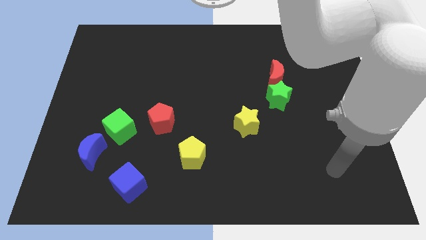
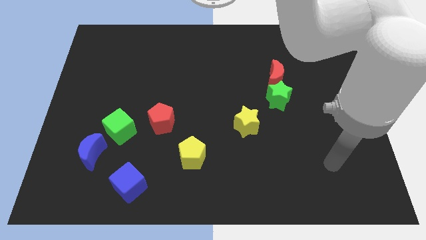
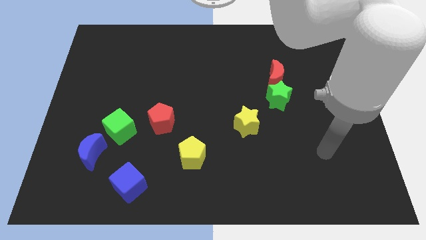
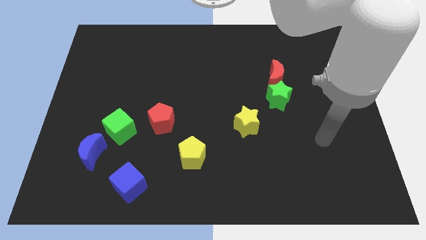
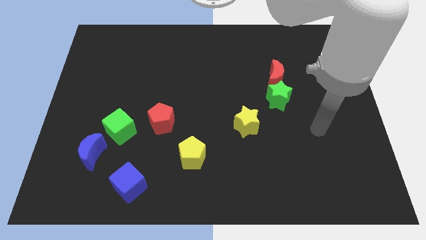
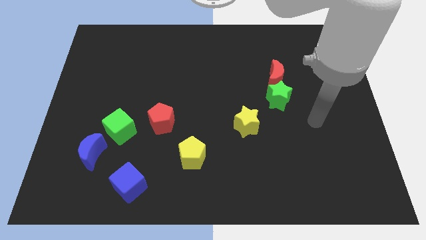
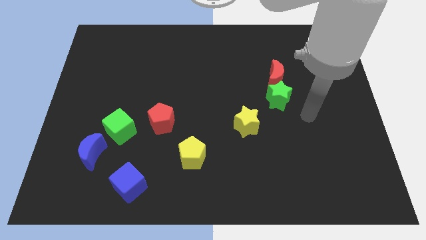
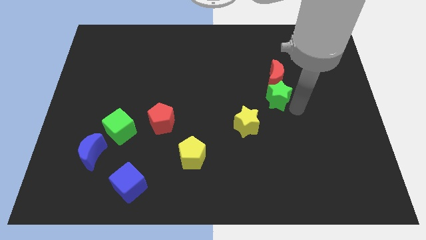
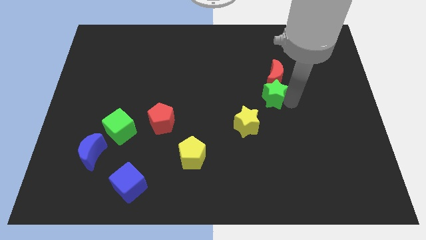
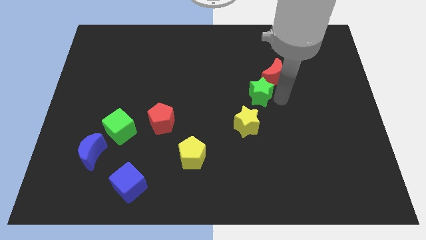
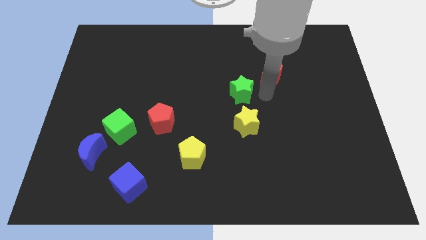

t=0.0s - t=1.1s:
pull the red moon apart from the green star

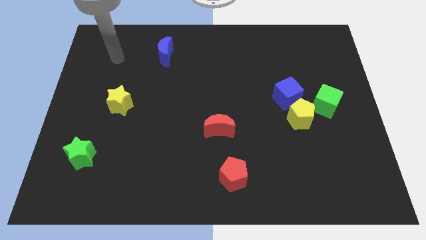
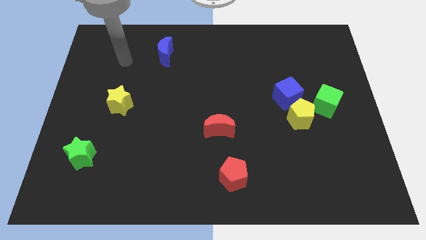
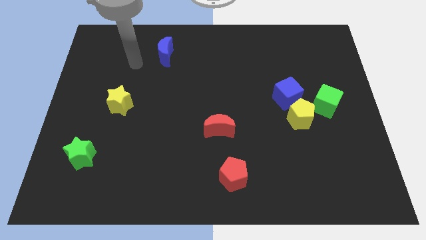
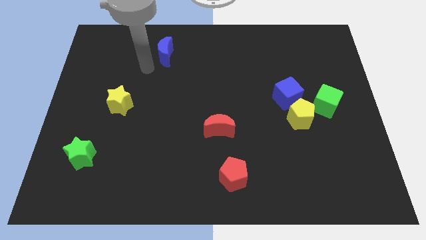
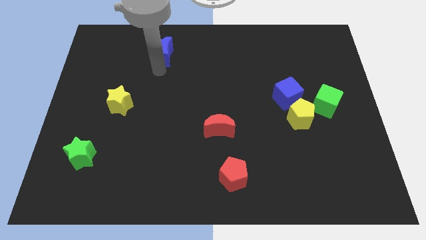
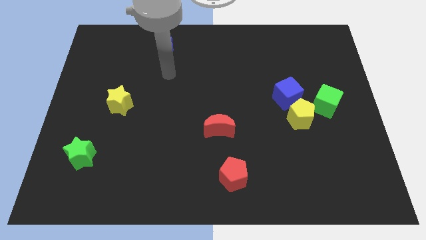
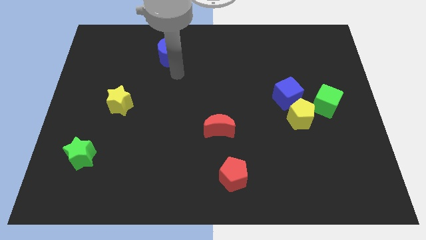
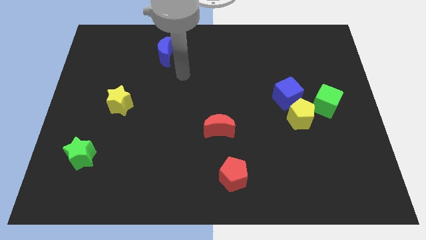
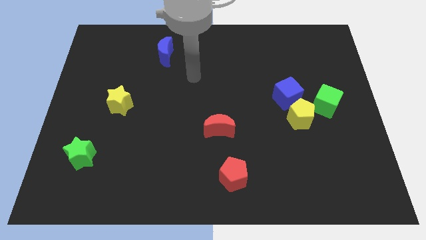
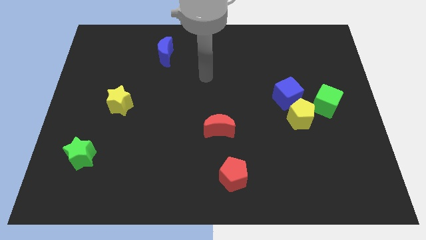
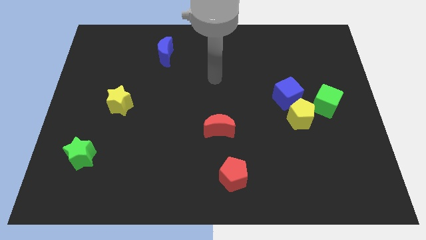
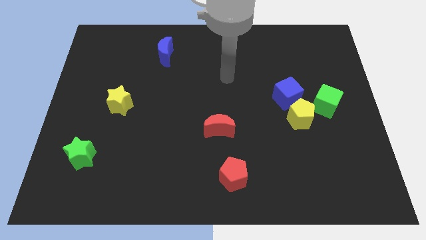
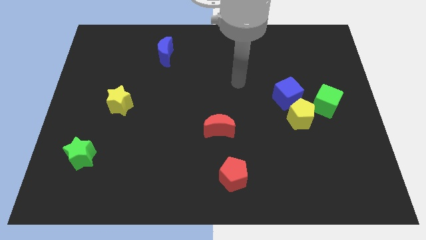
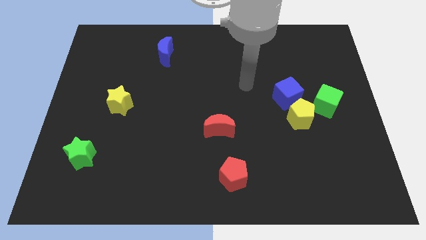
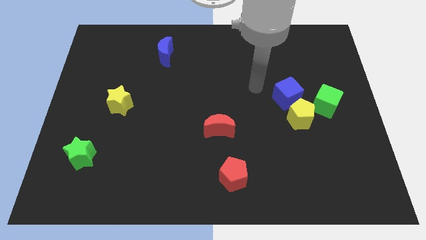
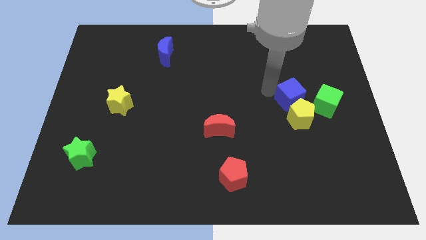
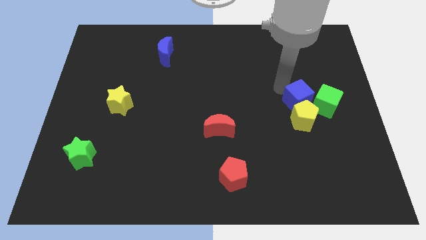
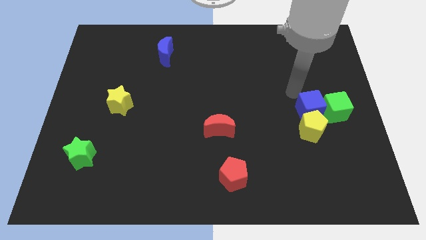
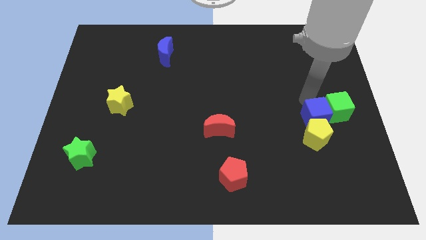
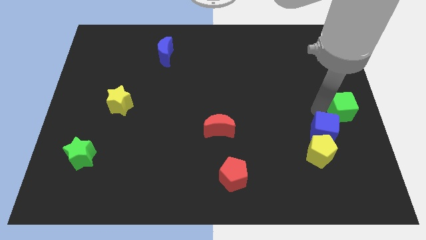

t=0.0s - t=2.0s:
move the yellow pentagon away from the blue cube and green cube

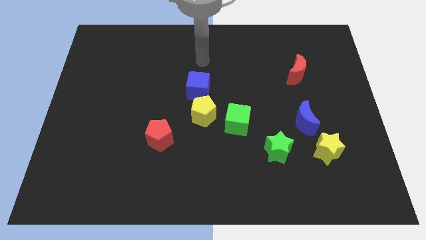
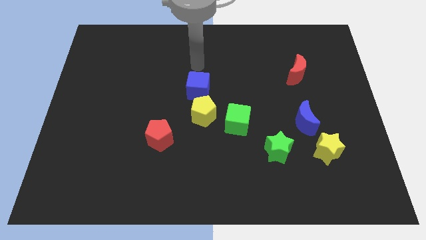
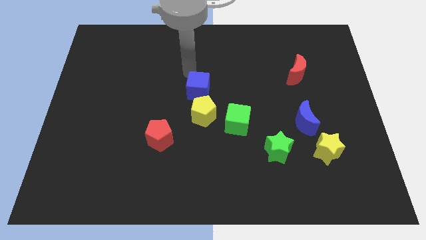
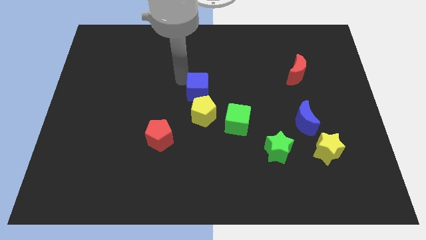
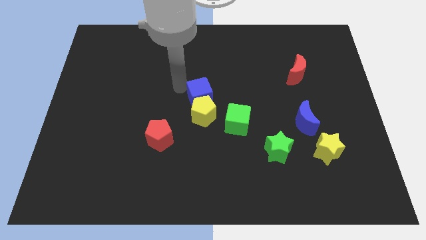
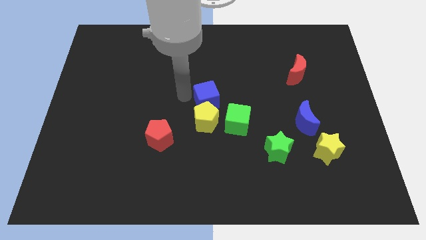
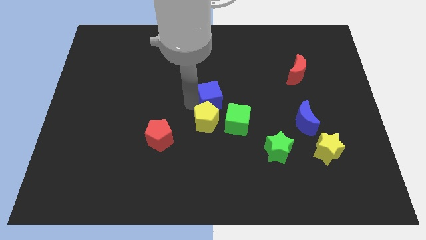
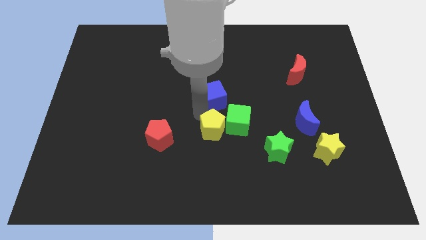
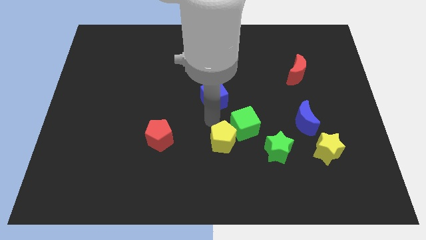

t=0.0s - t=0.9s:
pull the blue cube apart from the yellow pentagon

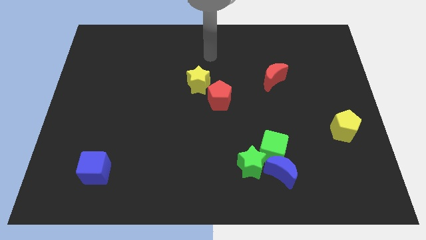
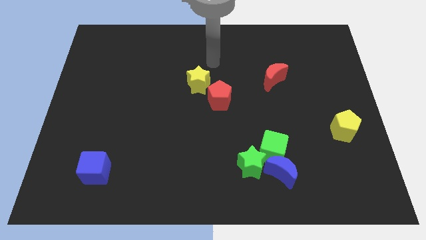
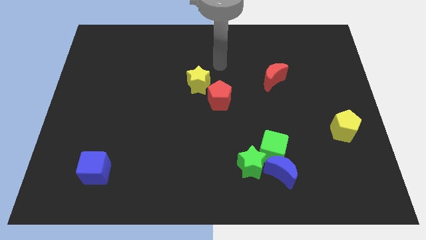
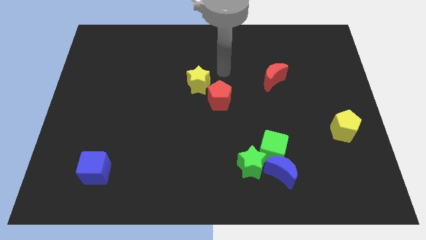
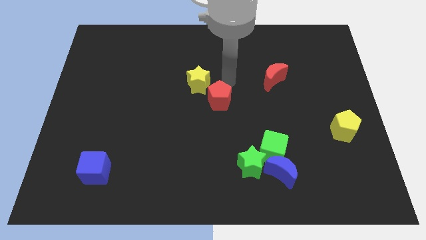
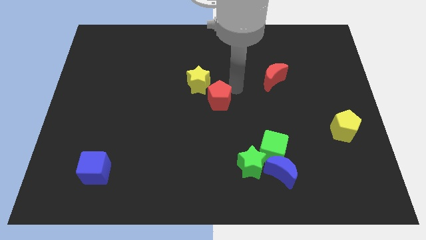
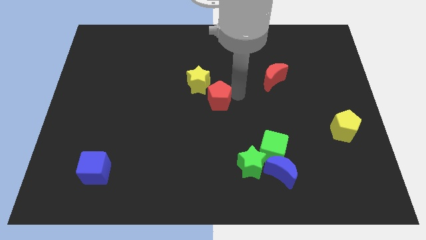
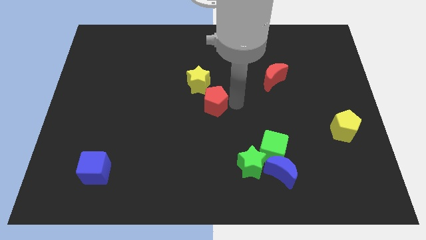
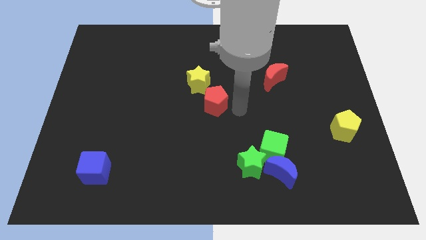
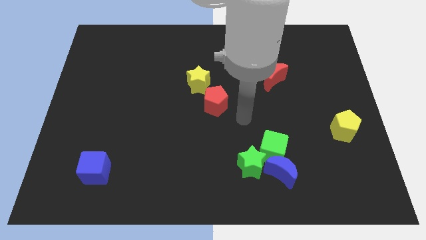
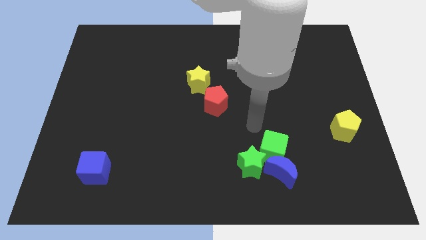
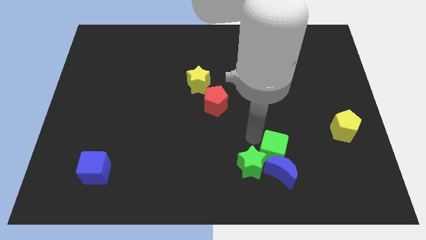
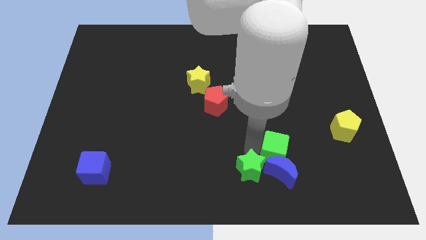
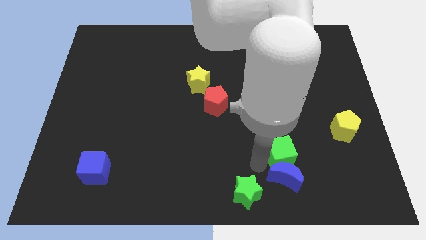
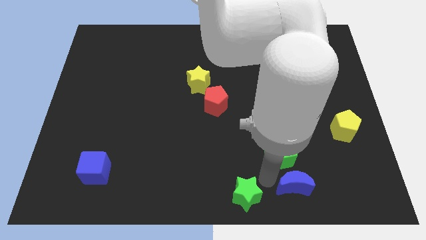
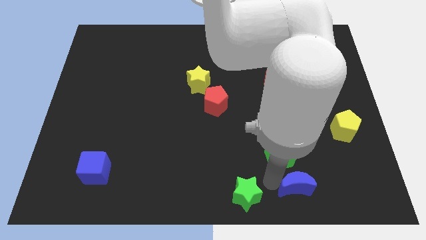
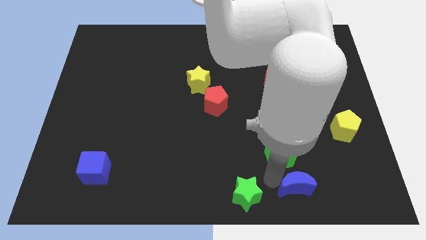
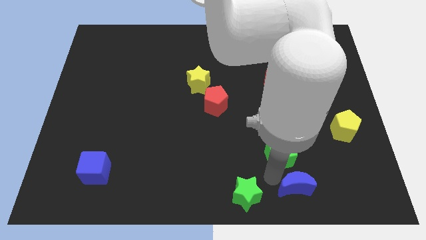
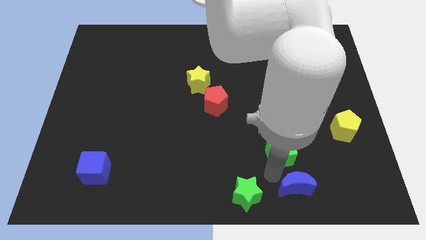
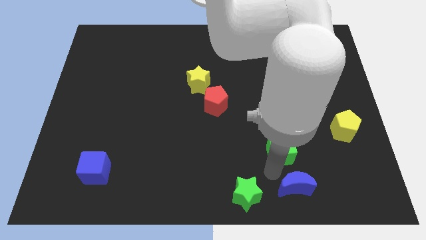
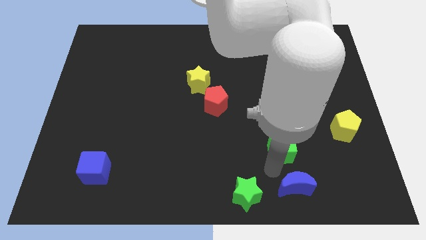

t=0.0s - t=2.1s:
separate the green cube from the blue moon and green star

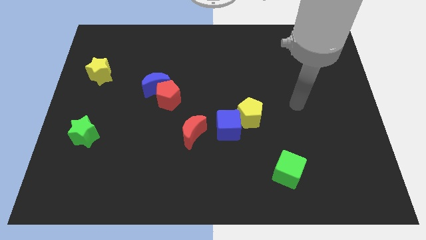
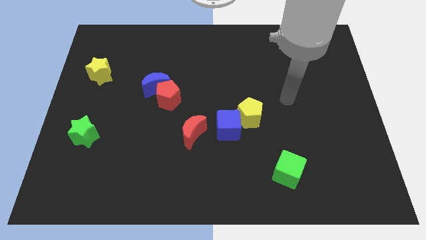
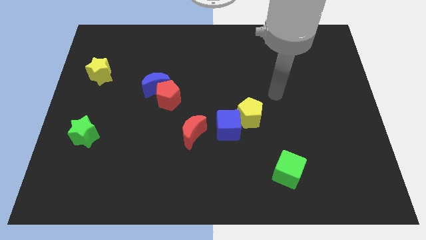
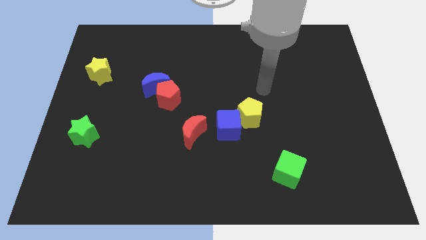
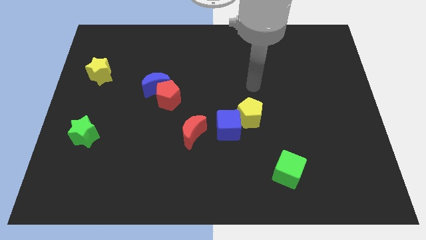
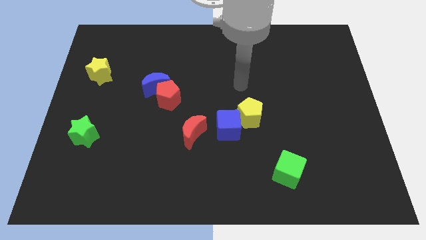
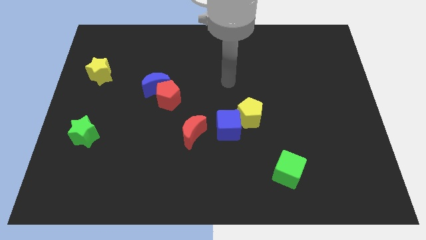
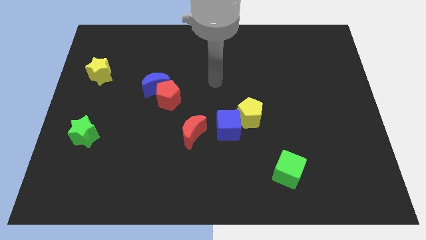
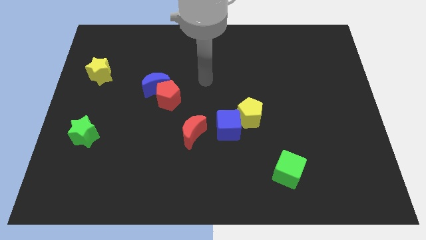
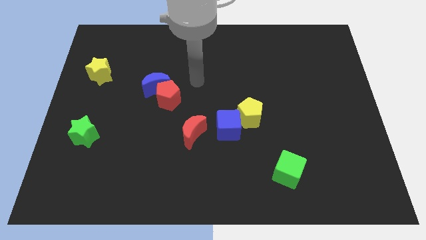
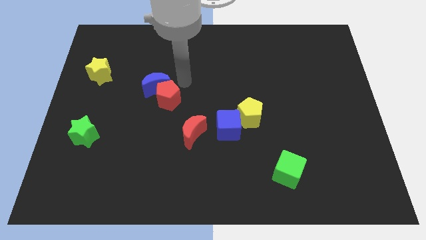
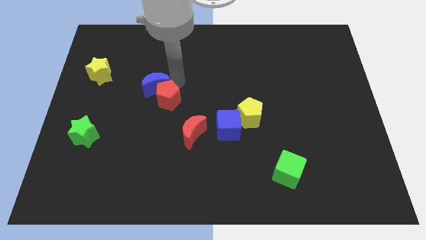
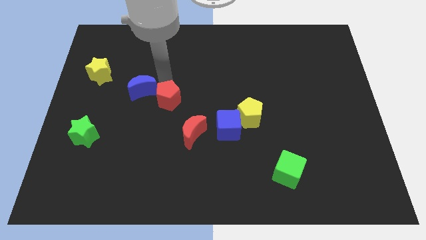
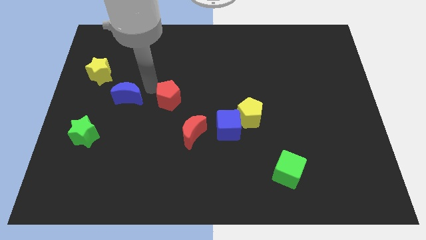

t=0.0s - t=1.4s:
pull the red pentagon apart from the blue moon

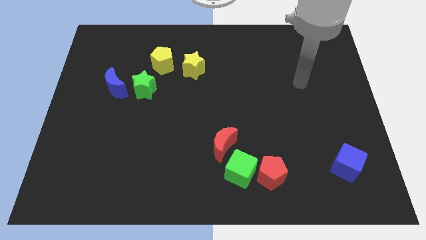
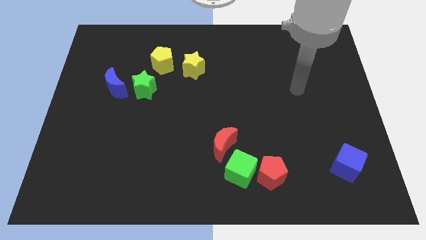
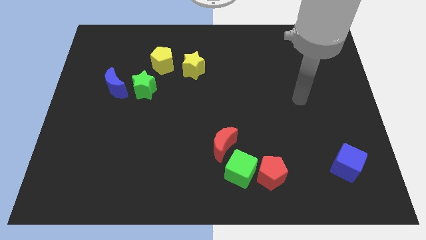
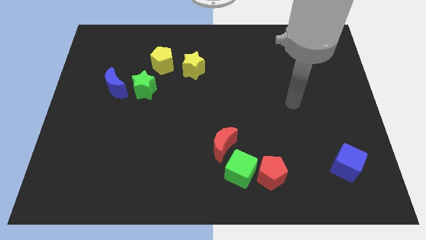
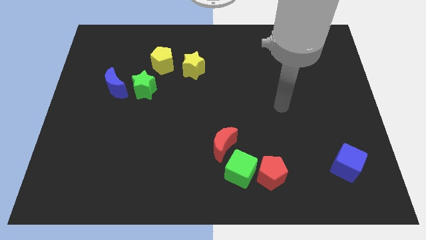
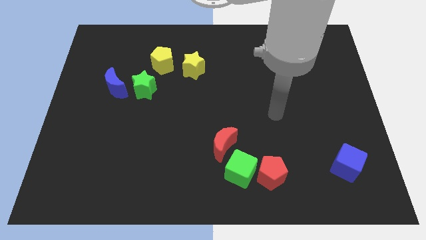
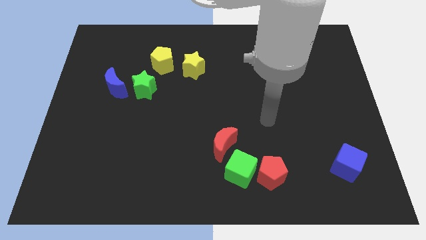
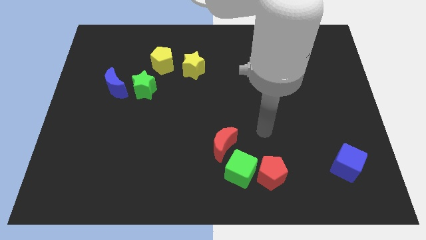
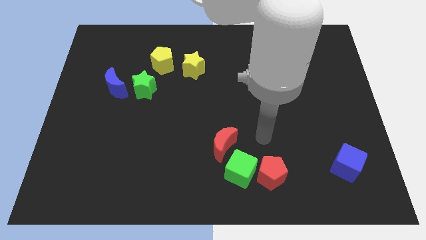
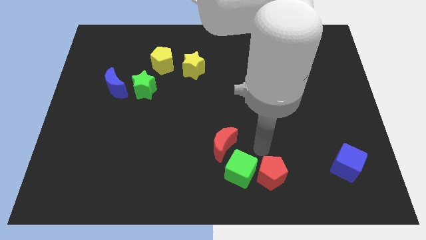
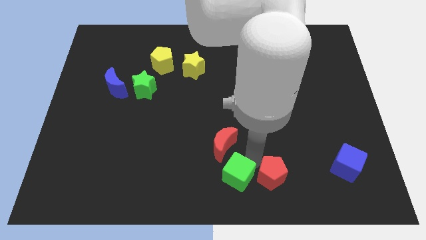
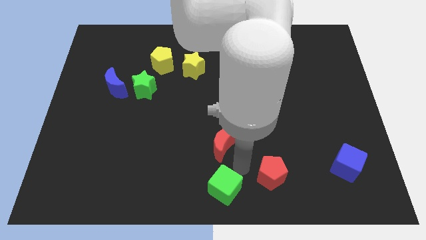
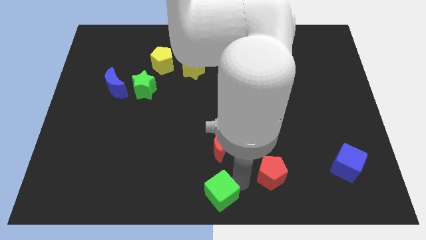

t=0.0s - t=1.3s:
pull the red pentagon apart from the green cube

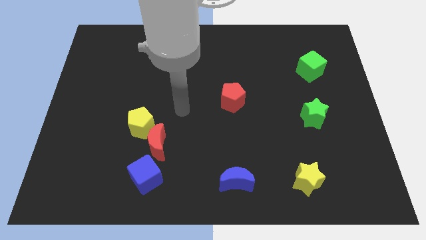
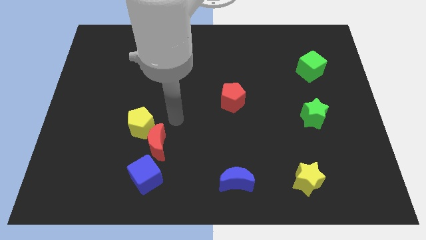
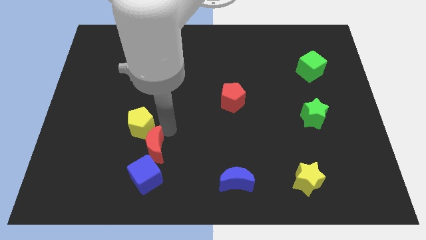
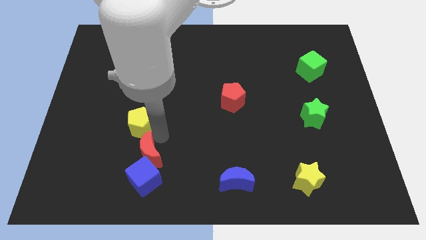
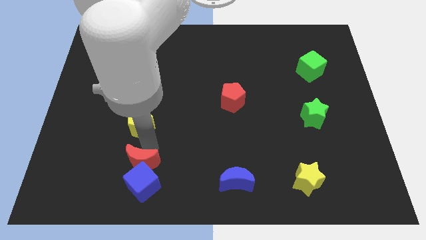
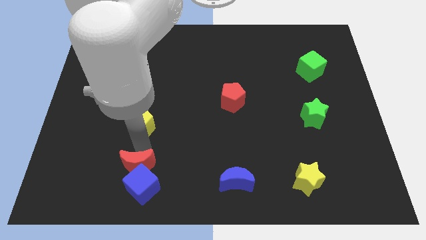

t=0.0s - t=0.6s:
separate the yellow pentagon from the red moon

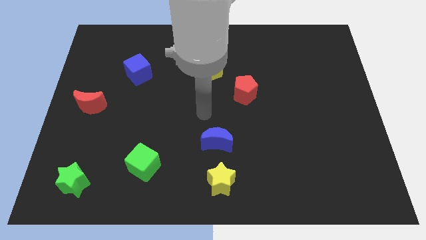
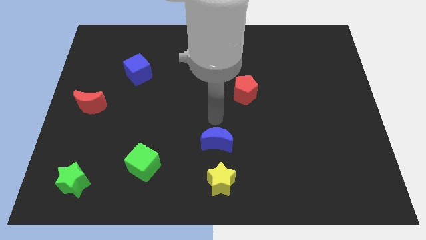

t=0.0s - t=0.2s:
separate the blue moon from the yellow star
